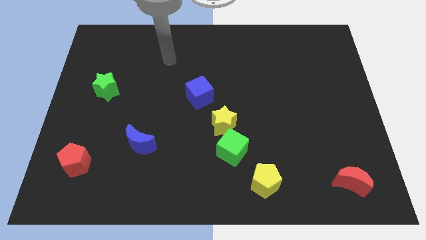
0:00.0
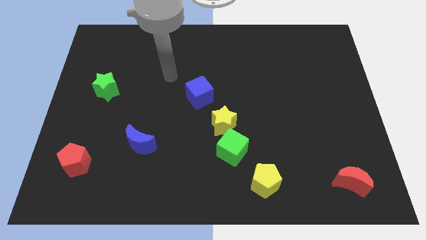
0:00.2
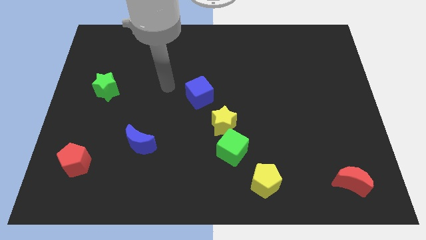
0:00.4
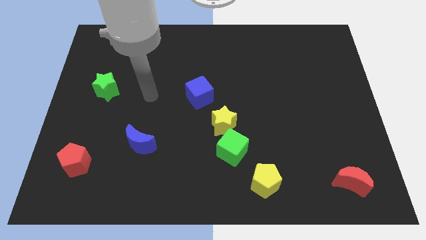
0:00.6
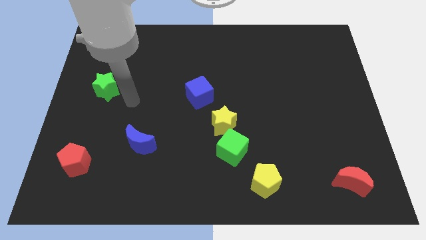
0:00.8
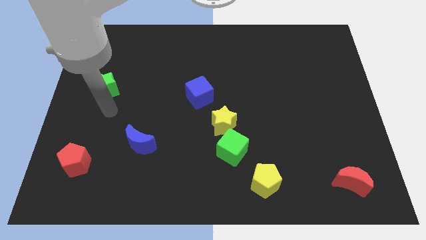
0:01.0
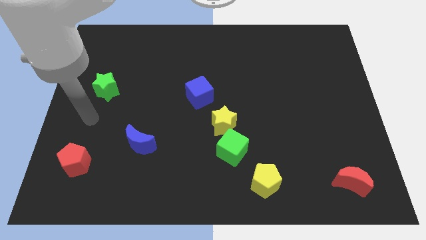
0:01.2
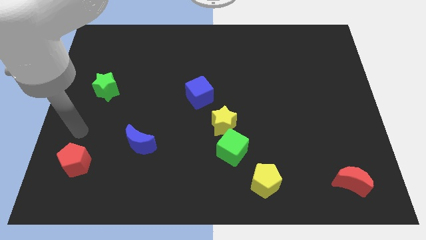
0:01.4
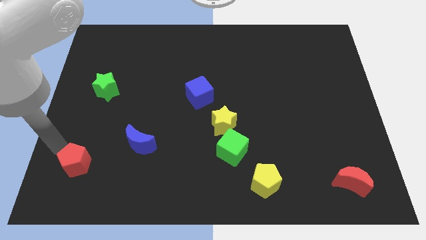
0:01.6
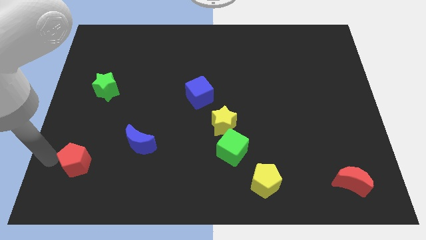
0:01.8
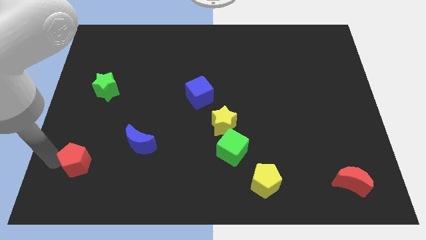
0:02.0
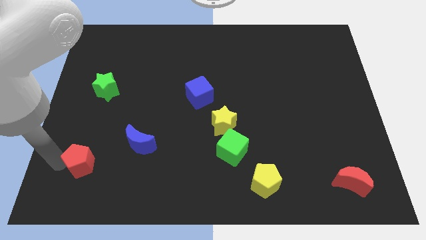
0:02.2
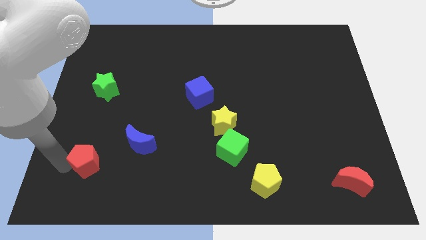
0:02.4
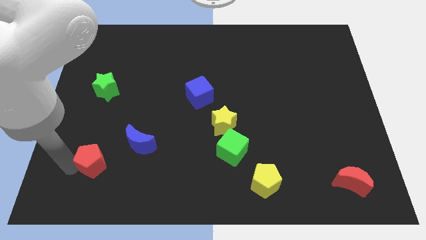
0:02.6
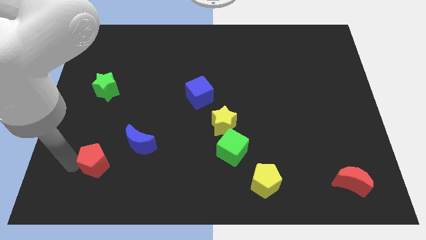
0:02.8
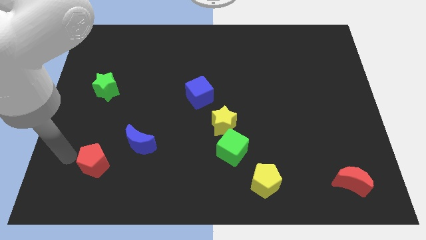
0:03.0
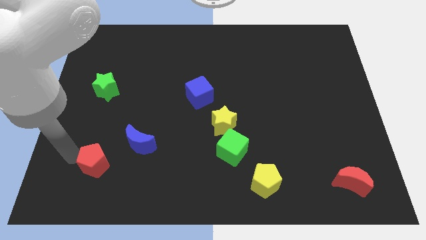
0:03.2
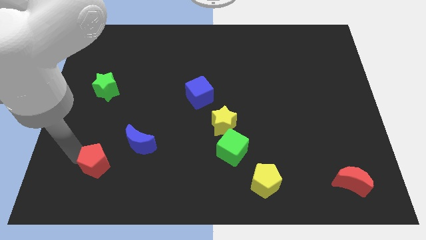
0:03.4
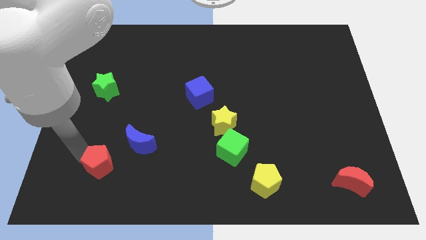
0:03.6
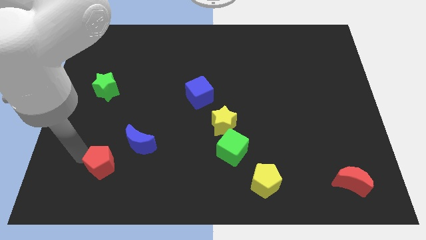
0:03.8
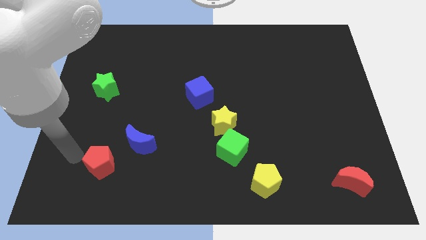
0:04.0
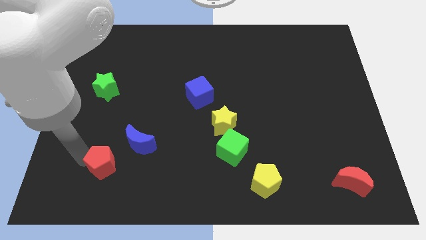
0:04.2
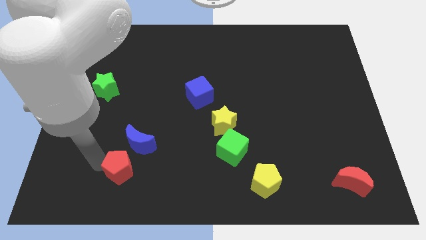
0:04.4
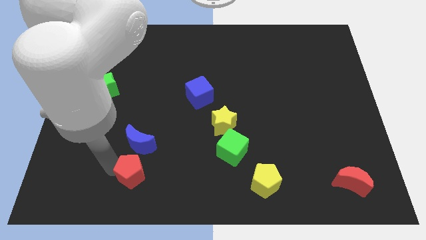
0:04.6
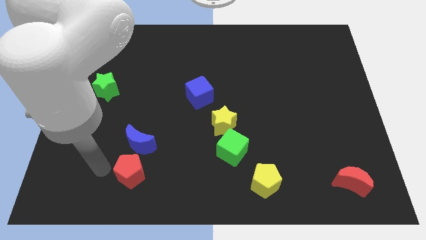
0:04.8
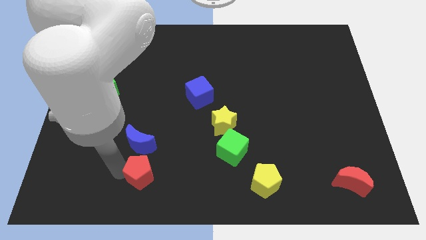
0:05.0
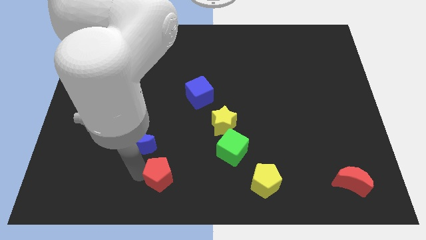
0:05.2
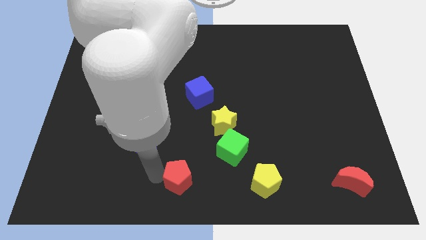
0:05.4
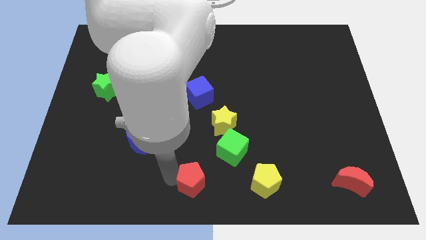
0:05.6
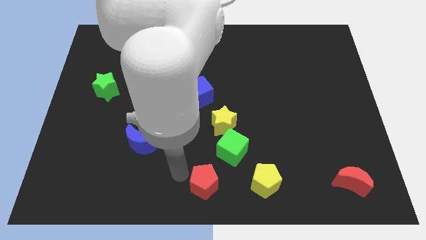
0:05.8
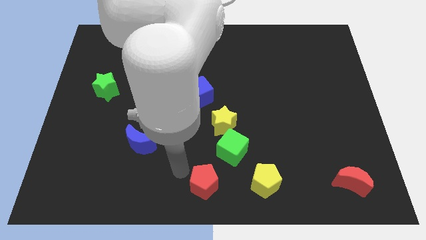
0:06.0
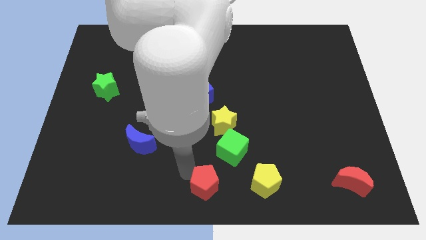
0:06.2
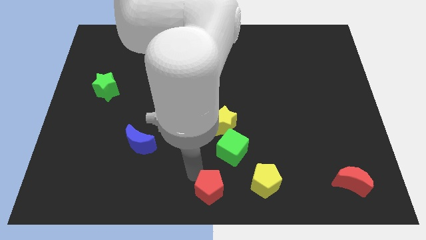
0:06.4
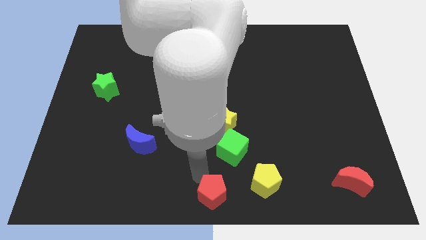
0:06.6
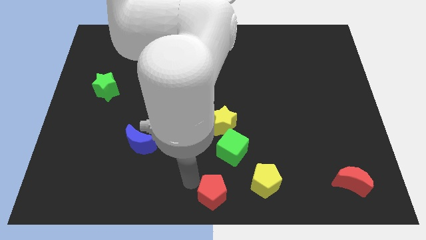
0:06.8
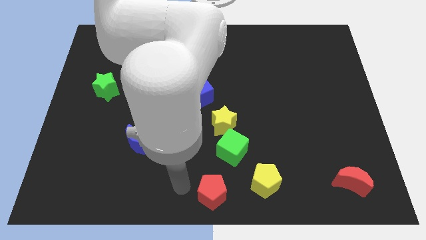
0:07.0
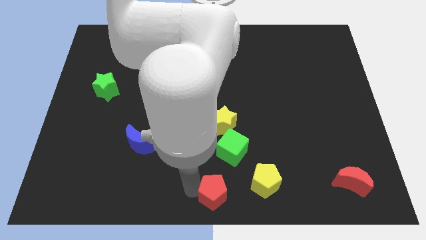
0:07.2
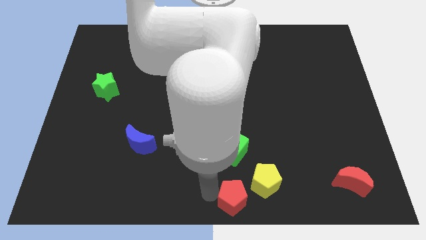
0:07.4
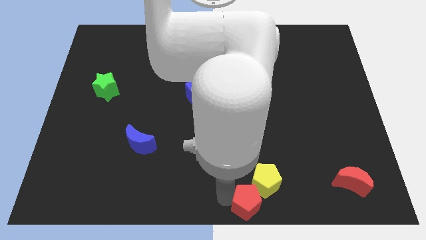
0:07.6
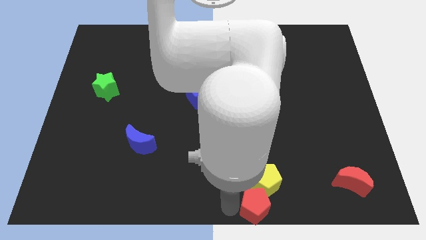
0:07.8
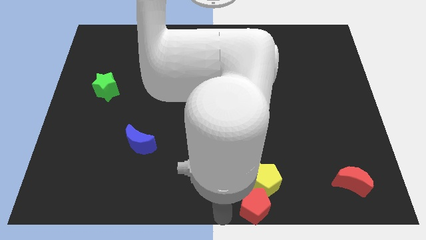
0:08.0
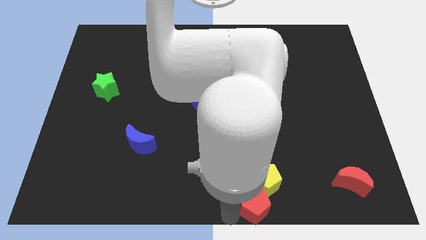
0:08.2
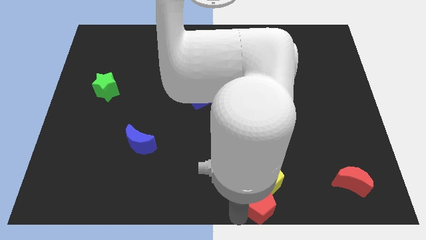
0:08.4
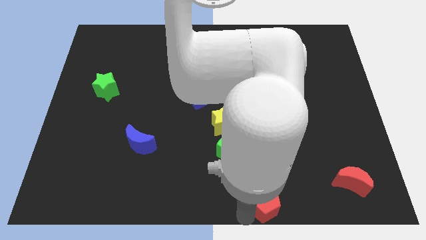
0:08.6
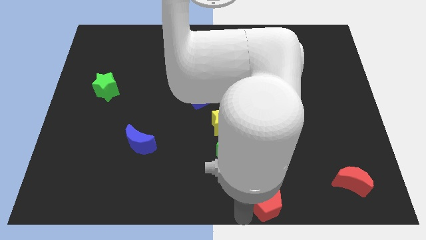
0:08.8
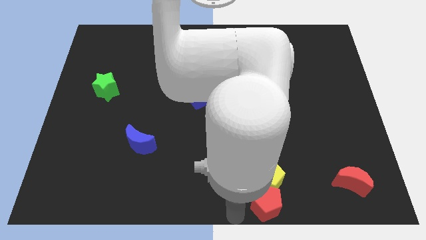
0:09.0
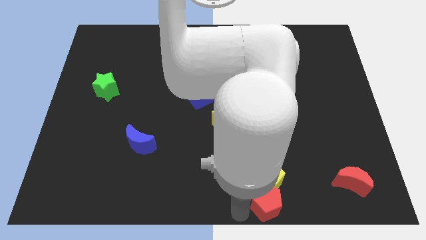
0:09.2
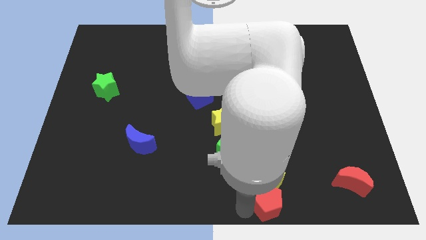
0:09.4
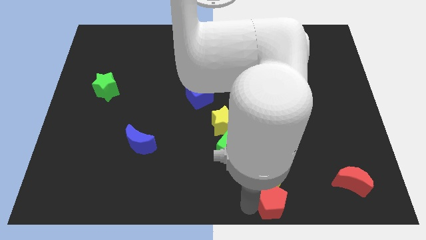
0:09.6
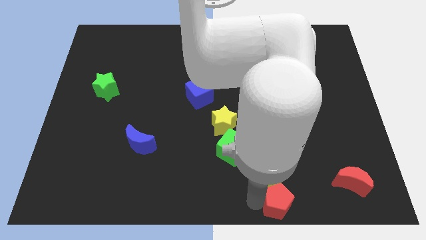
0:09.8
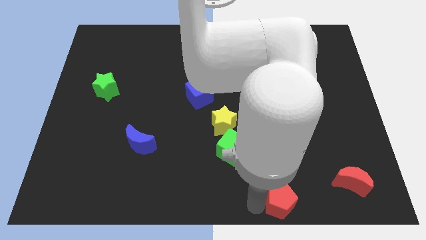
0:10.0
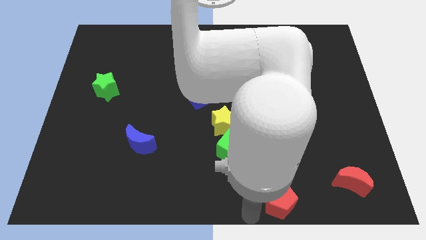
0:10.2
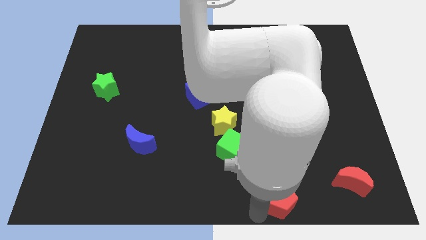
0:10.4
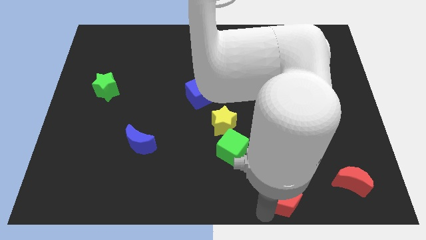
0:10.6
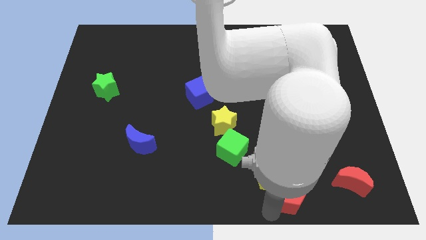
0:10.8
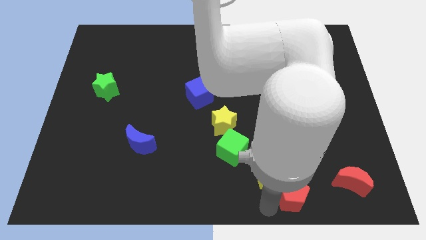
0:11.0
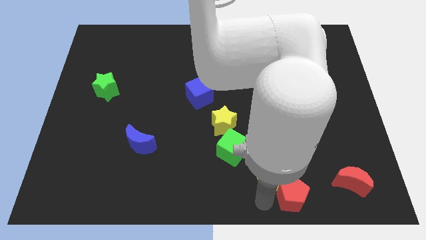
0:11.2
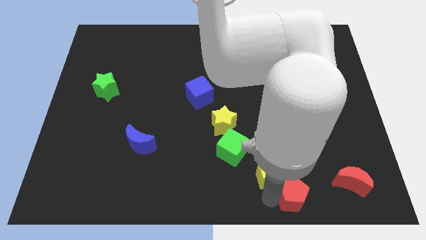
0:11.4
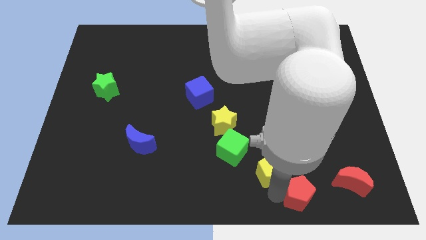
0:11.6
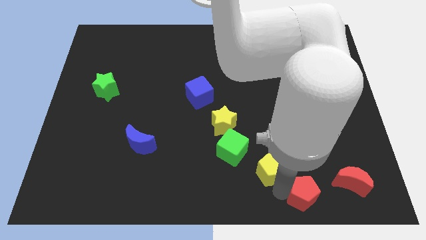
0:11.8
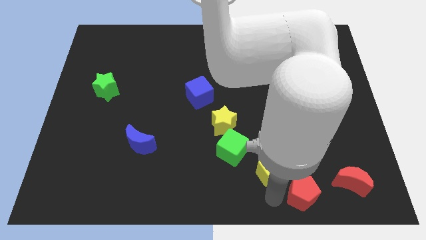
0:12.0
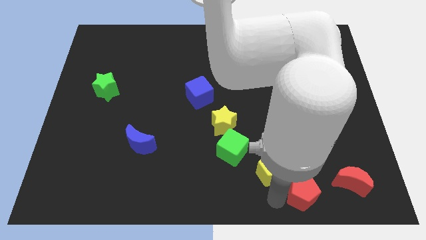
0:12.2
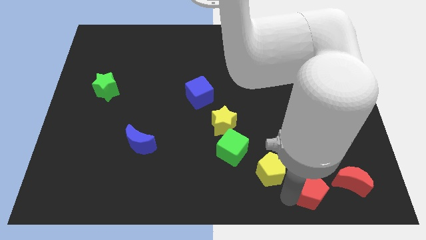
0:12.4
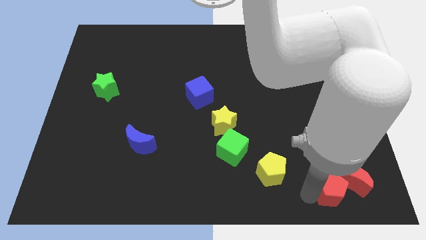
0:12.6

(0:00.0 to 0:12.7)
put the red pentagon next to the red moon

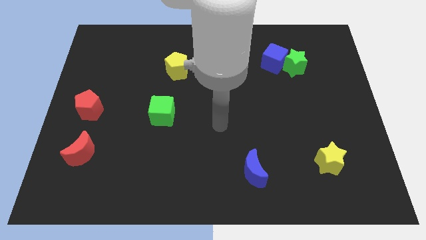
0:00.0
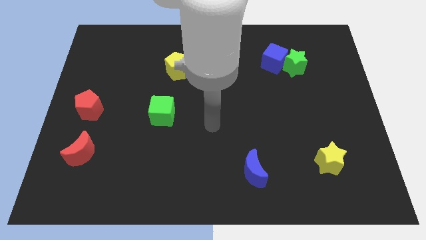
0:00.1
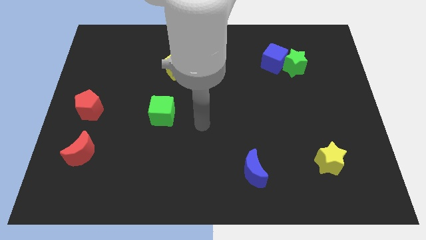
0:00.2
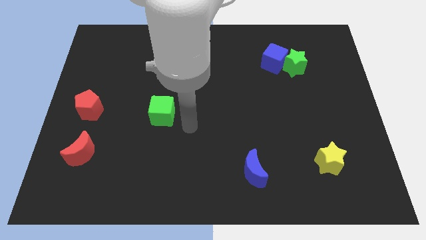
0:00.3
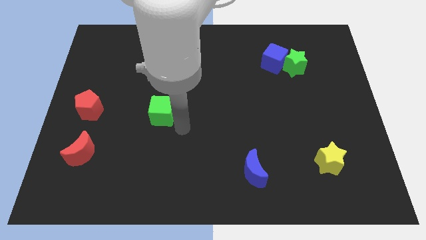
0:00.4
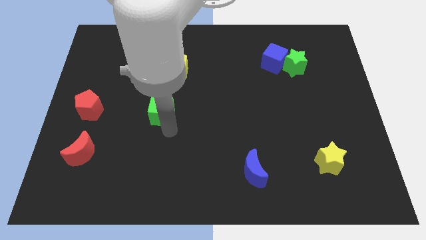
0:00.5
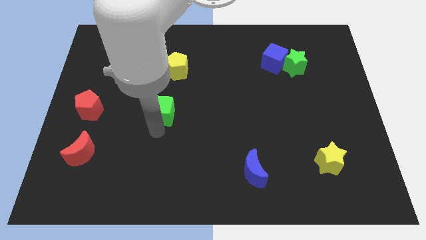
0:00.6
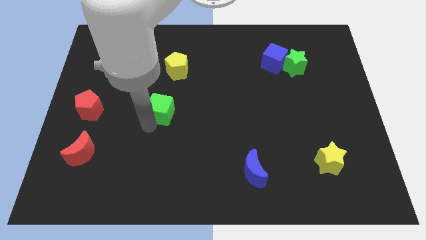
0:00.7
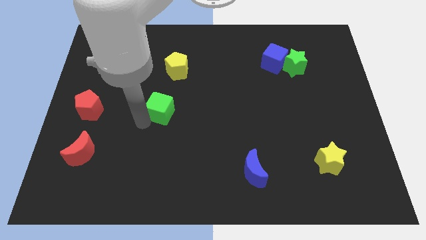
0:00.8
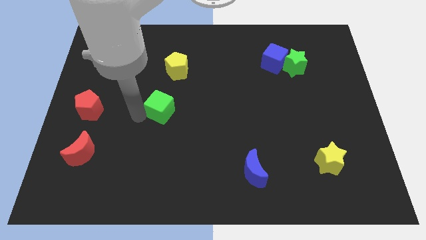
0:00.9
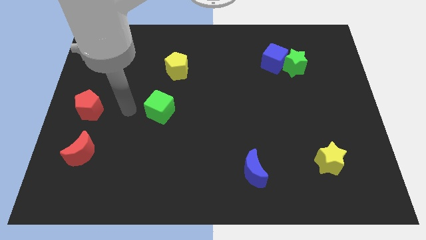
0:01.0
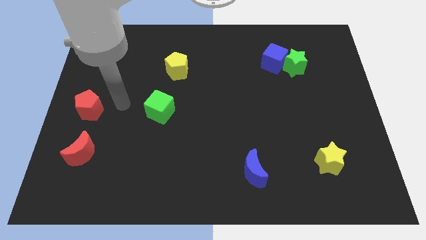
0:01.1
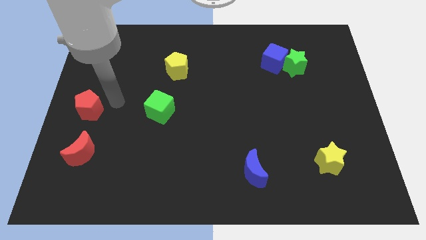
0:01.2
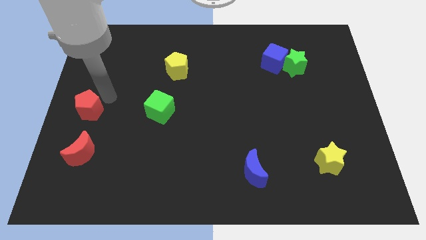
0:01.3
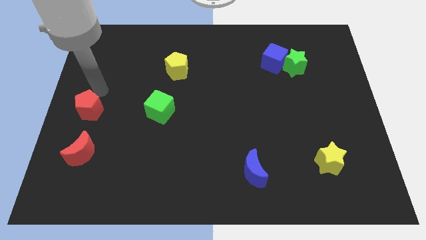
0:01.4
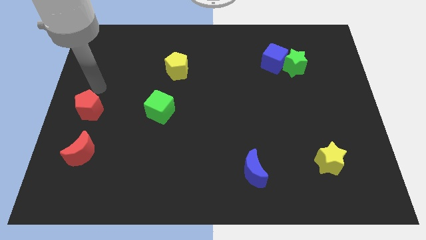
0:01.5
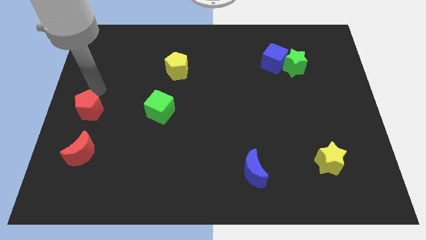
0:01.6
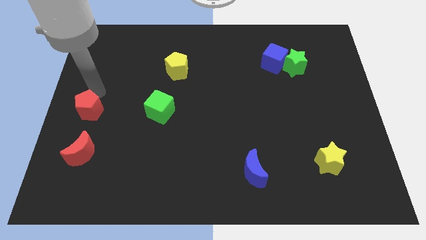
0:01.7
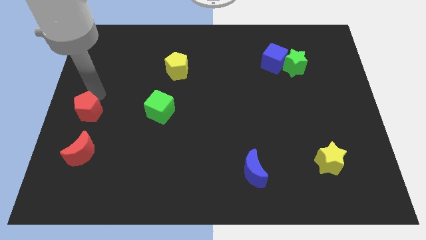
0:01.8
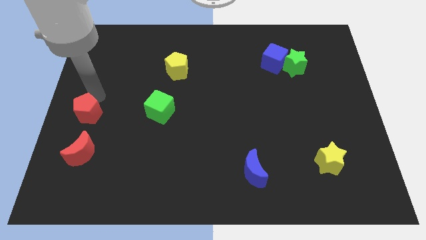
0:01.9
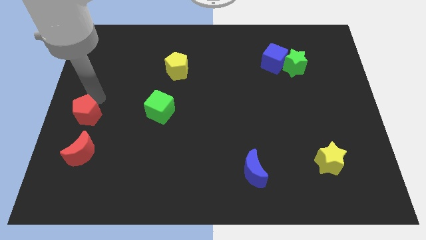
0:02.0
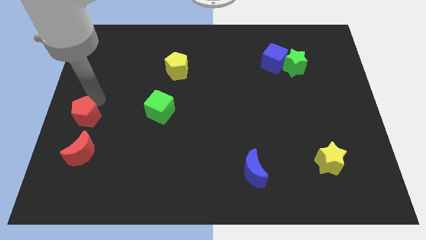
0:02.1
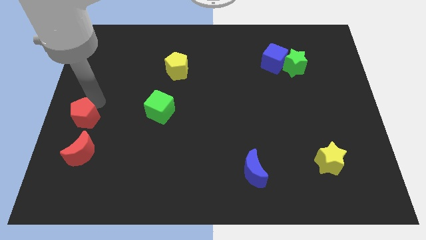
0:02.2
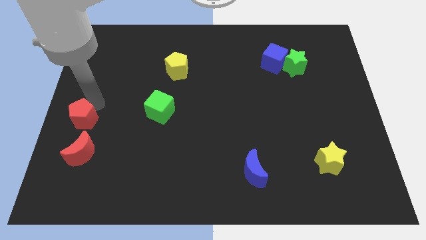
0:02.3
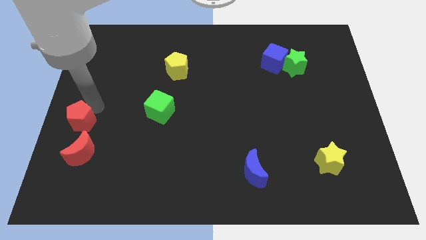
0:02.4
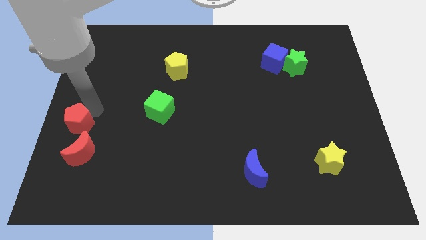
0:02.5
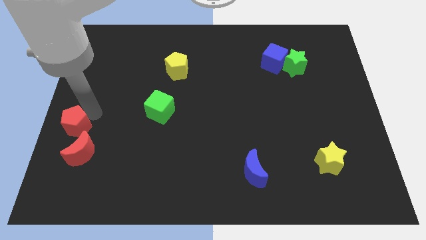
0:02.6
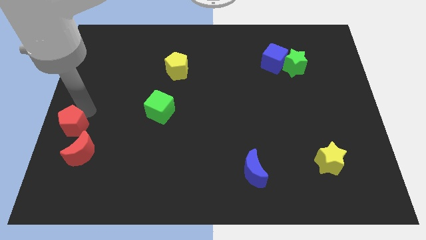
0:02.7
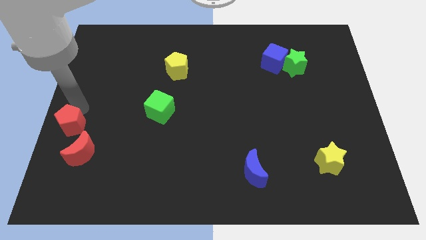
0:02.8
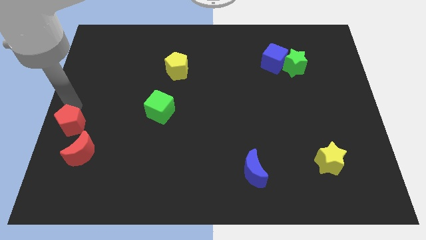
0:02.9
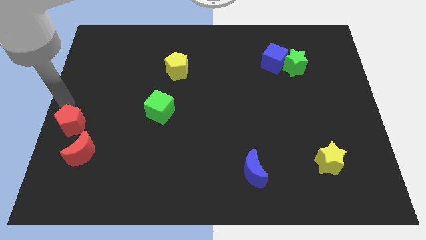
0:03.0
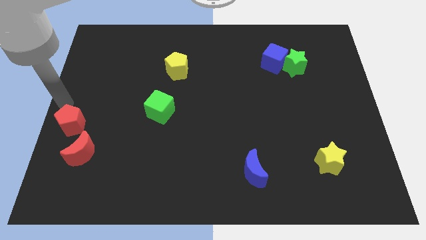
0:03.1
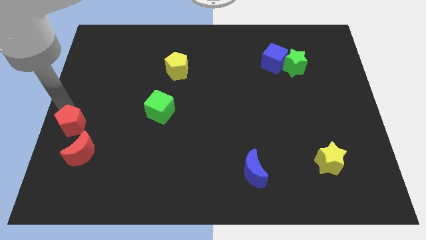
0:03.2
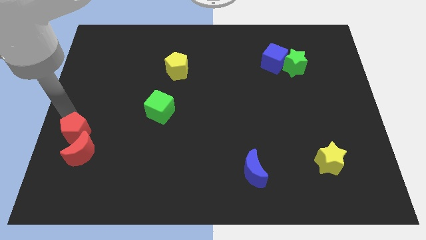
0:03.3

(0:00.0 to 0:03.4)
slide the red pentagon next to the red moon
